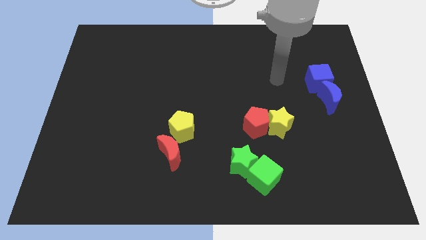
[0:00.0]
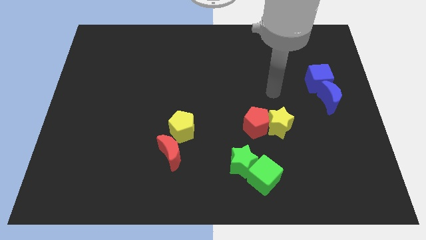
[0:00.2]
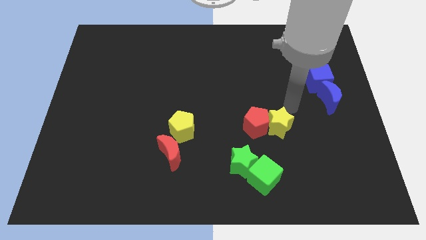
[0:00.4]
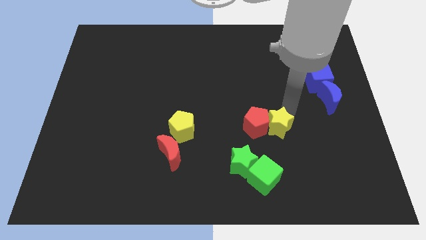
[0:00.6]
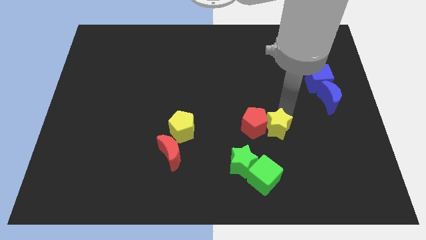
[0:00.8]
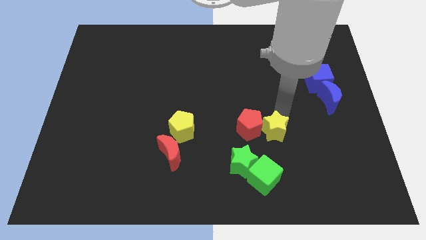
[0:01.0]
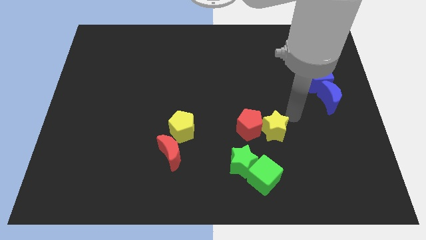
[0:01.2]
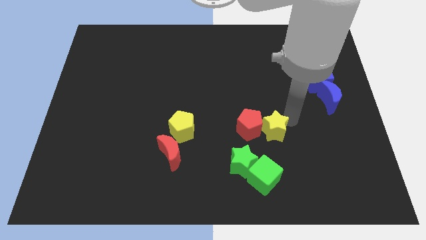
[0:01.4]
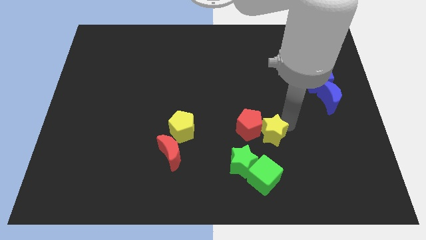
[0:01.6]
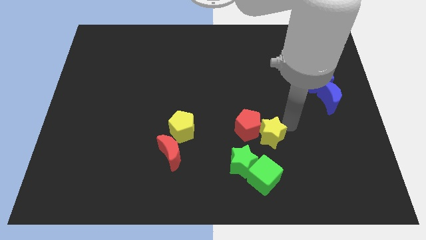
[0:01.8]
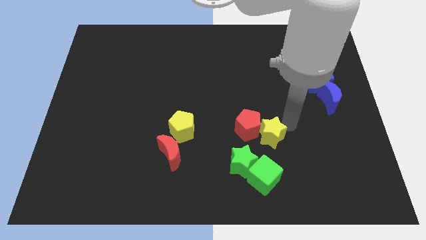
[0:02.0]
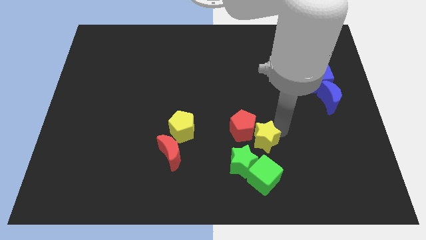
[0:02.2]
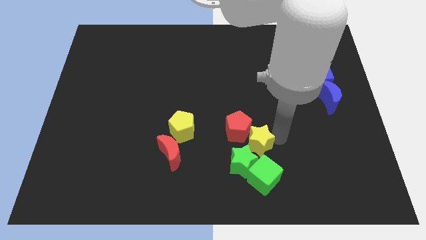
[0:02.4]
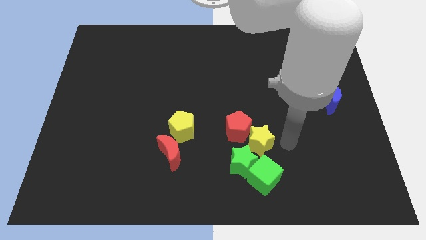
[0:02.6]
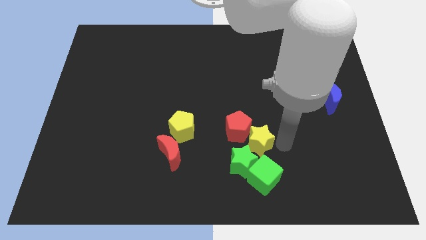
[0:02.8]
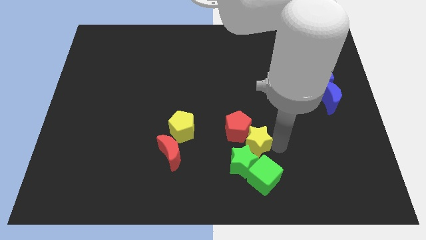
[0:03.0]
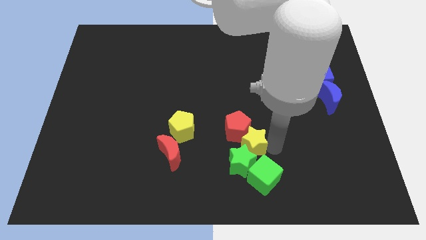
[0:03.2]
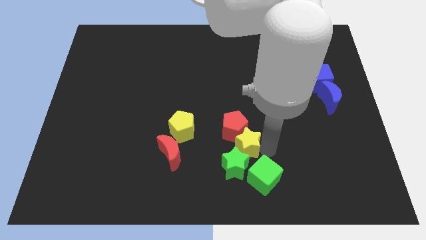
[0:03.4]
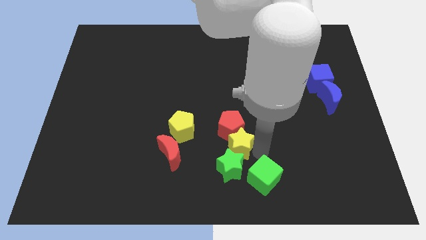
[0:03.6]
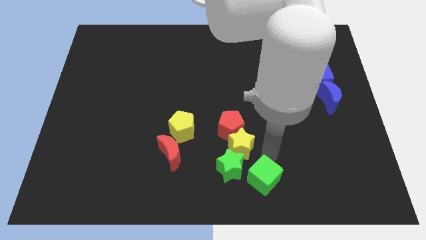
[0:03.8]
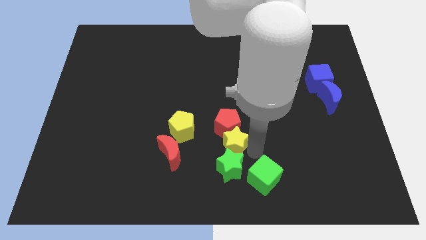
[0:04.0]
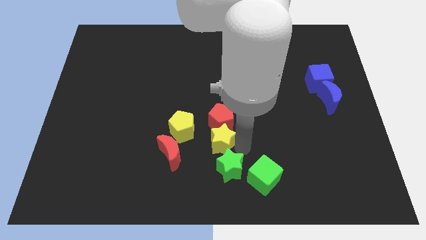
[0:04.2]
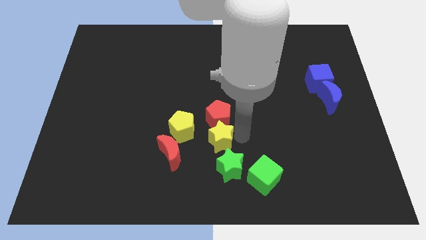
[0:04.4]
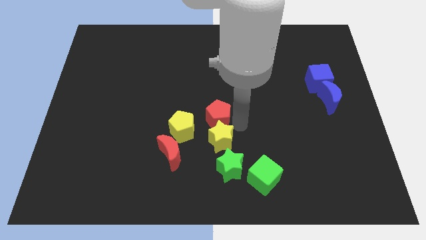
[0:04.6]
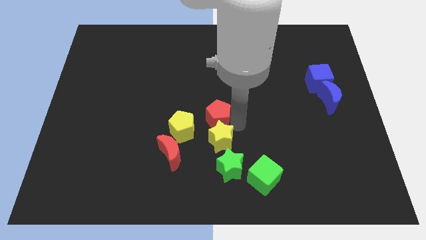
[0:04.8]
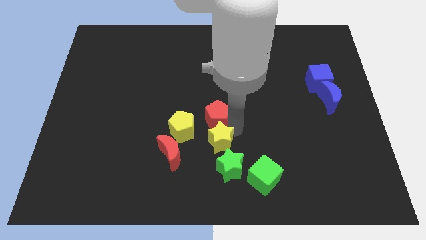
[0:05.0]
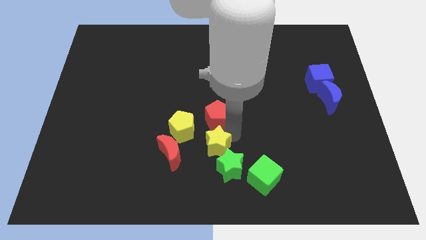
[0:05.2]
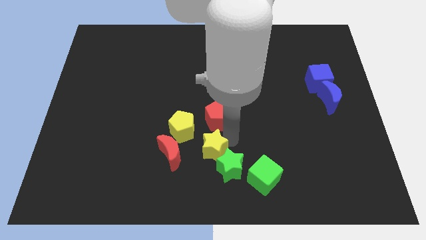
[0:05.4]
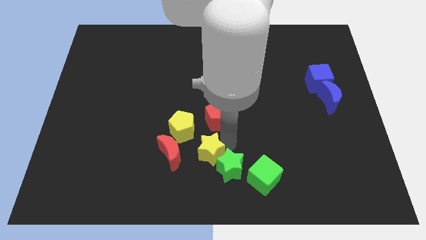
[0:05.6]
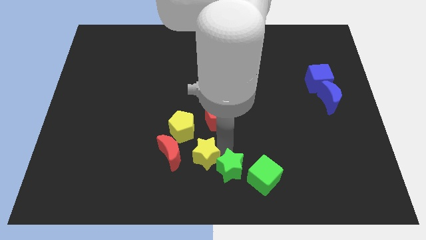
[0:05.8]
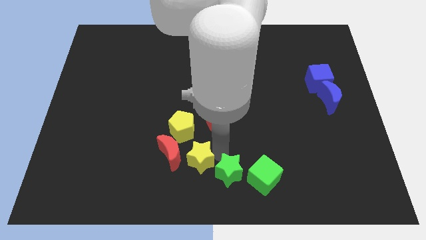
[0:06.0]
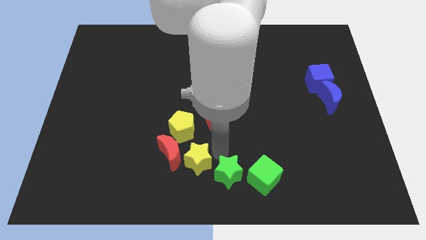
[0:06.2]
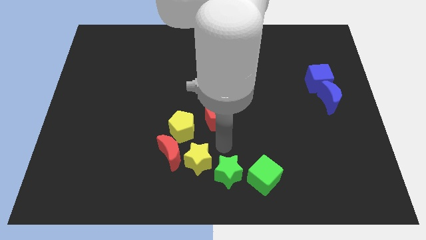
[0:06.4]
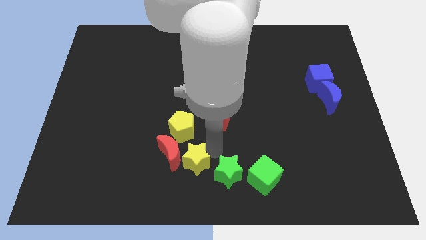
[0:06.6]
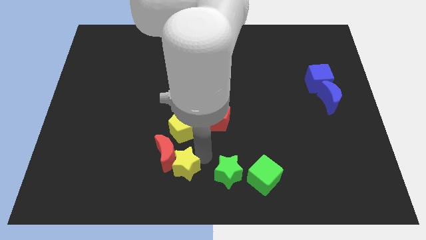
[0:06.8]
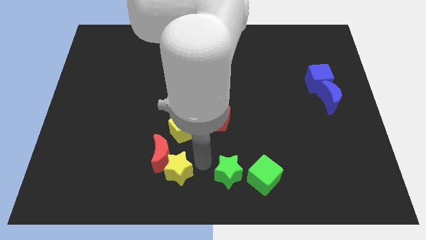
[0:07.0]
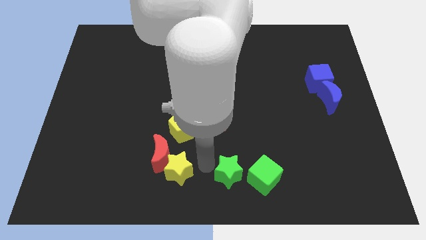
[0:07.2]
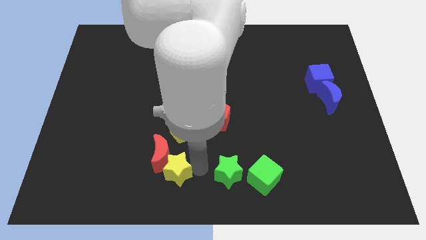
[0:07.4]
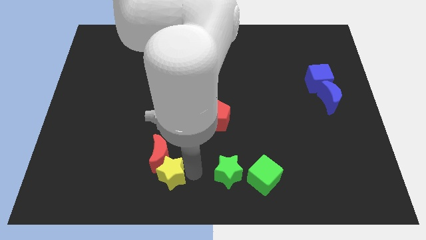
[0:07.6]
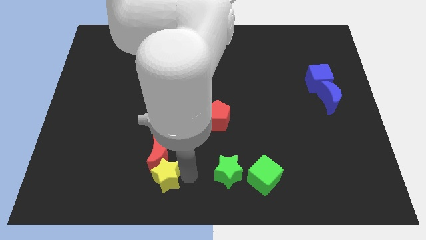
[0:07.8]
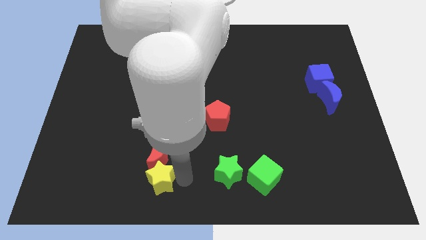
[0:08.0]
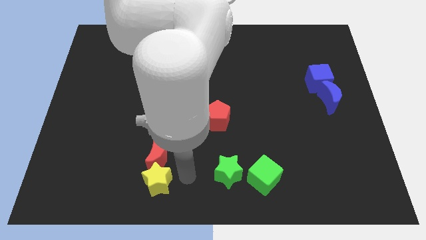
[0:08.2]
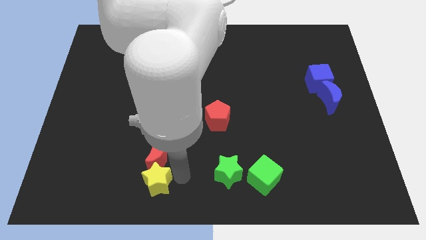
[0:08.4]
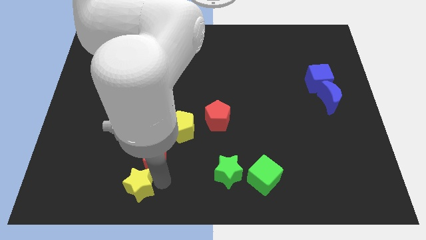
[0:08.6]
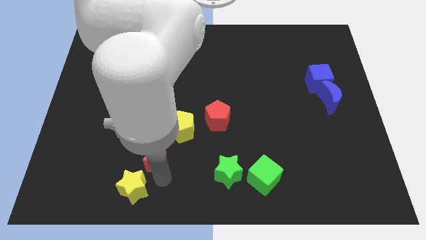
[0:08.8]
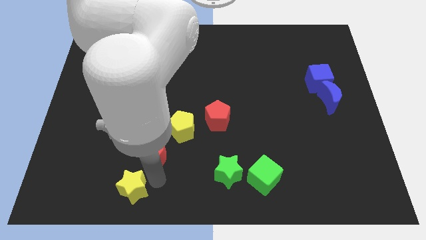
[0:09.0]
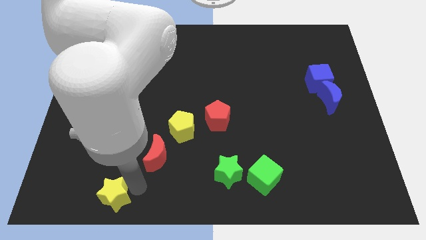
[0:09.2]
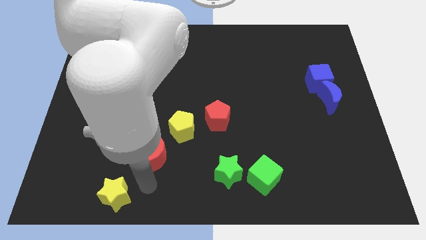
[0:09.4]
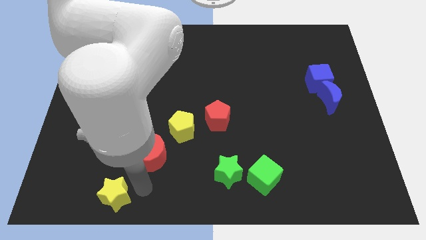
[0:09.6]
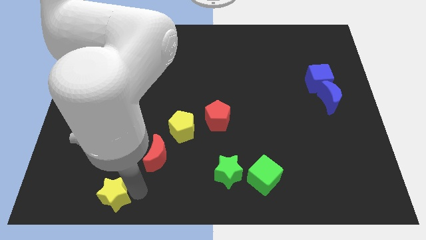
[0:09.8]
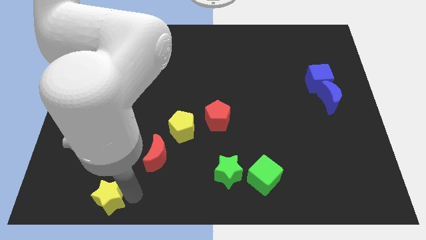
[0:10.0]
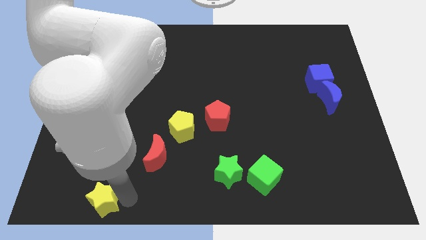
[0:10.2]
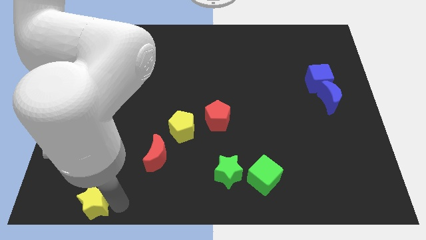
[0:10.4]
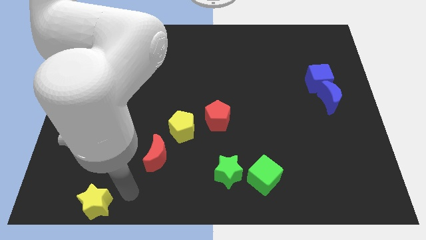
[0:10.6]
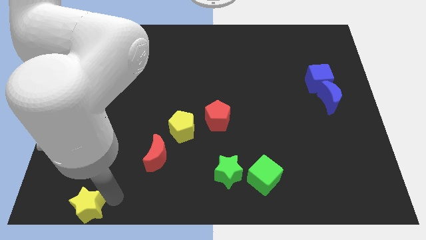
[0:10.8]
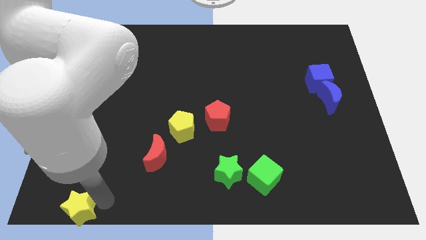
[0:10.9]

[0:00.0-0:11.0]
move the yellow star to the bottom left of the board

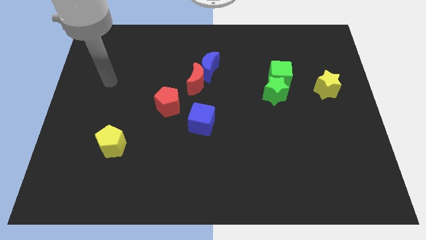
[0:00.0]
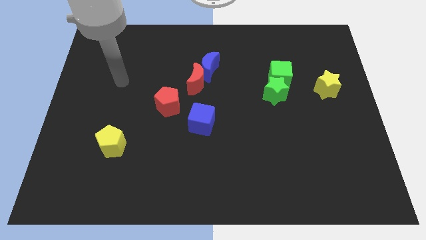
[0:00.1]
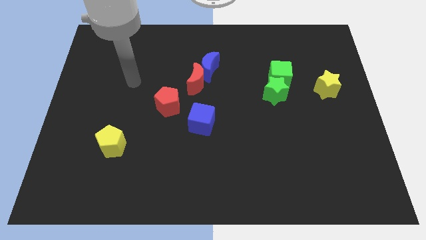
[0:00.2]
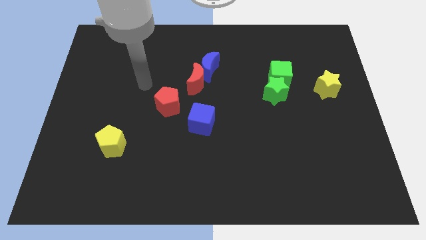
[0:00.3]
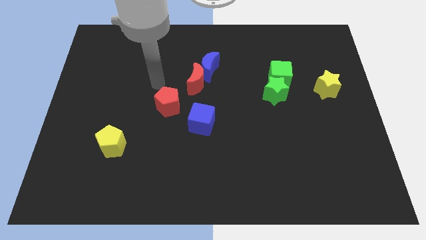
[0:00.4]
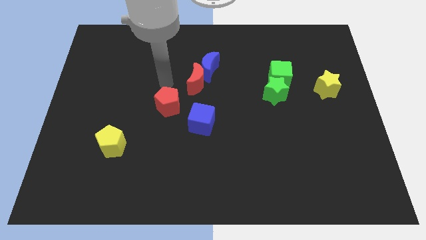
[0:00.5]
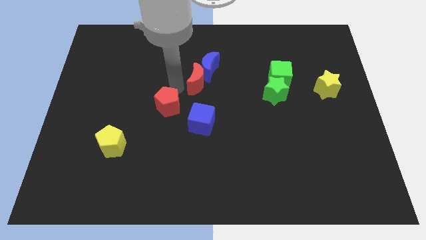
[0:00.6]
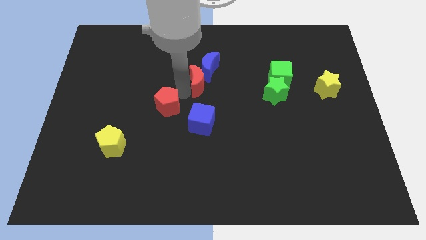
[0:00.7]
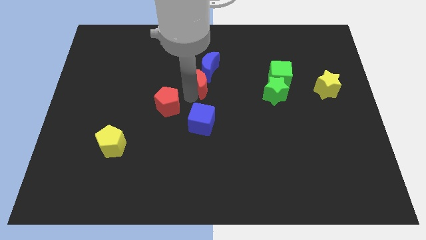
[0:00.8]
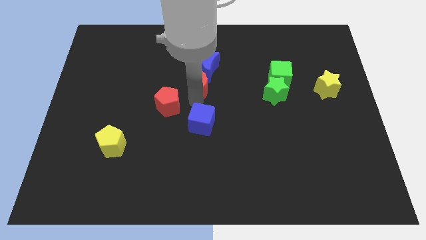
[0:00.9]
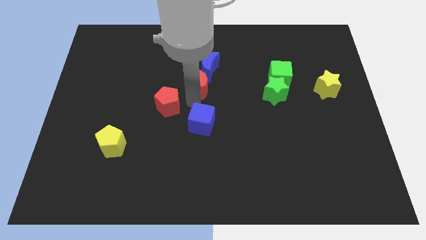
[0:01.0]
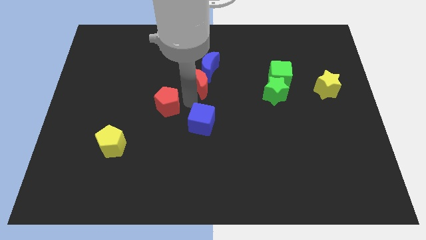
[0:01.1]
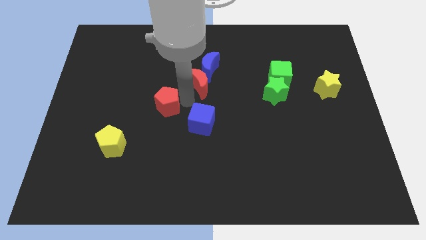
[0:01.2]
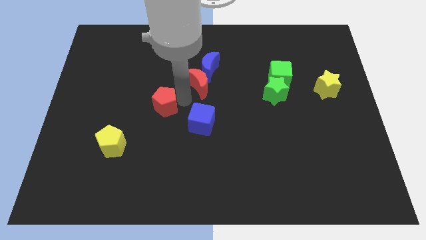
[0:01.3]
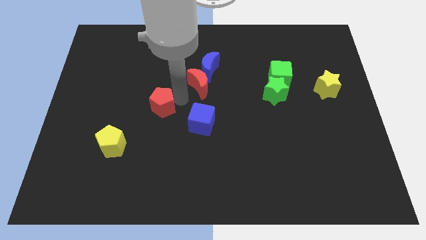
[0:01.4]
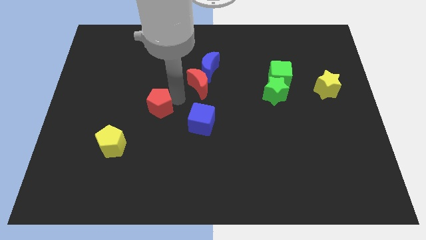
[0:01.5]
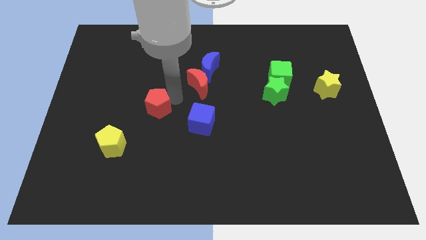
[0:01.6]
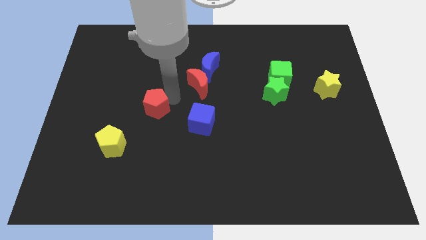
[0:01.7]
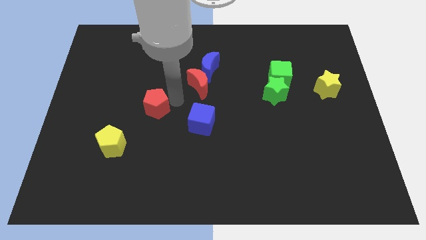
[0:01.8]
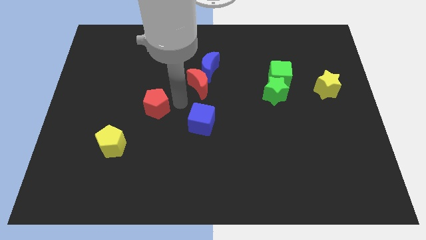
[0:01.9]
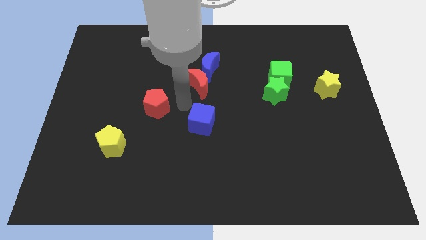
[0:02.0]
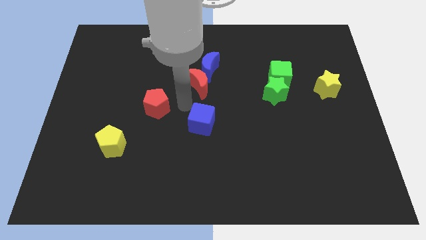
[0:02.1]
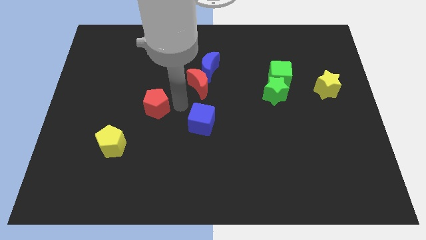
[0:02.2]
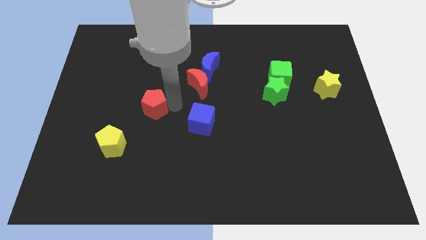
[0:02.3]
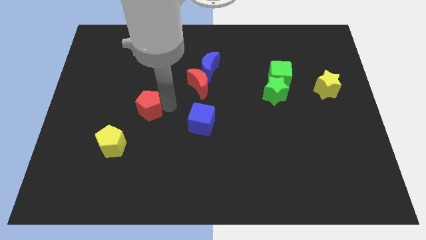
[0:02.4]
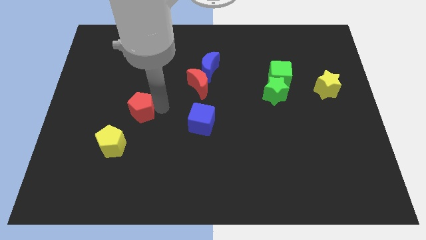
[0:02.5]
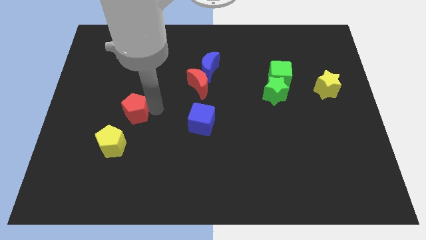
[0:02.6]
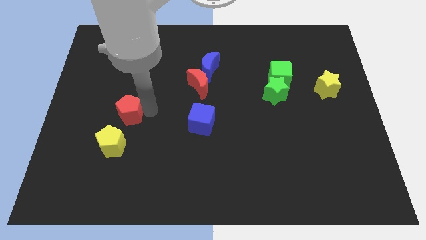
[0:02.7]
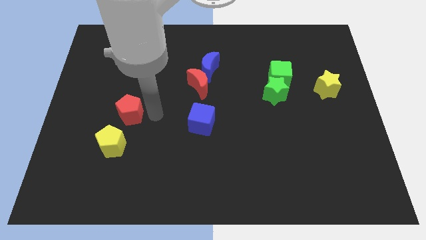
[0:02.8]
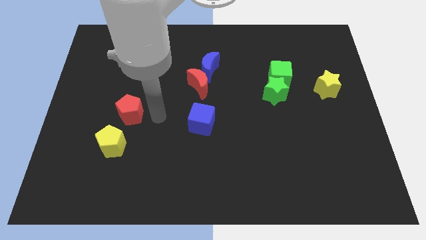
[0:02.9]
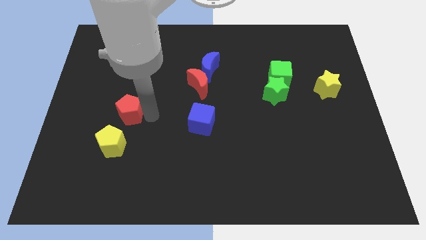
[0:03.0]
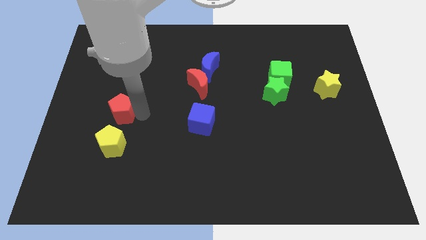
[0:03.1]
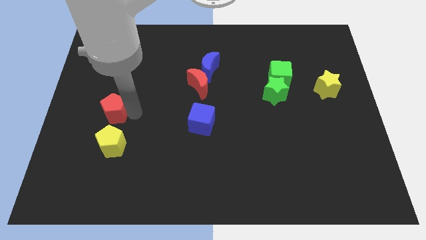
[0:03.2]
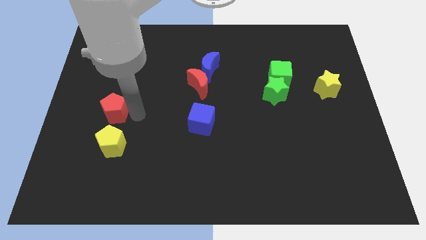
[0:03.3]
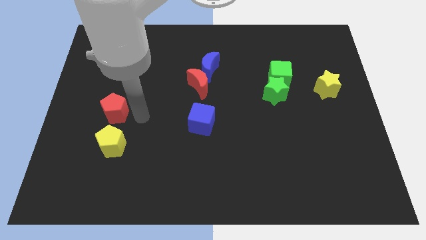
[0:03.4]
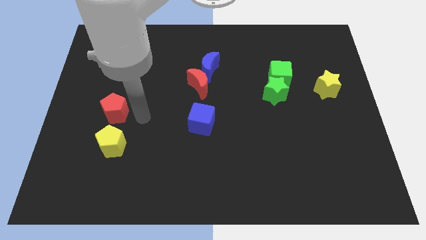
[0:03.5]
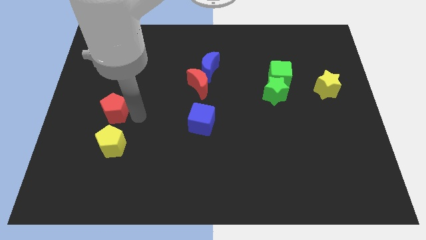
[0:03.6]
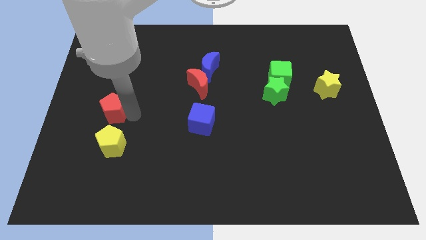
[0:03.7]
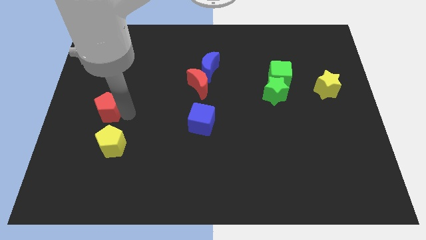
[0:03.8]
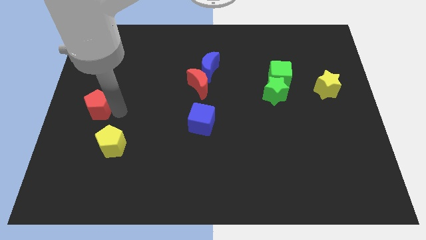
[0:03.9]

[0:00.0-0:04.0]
put the red pentagon to the center left
